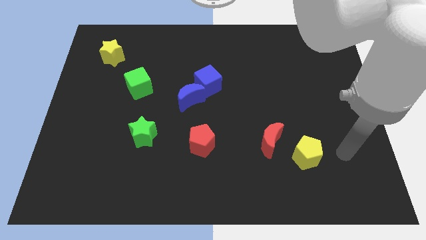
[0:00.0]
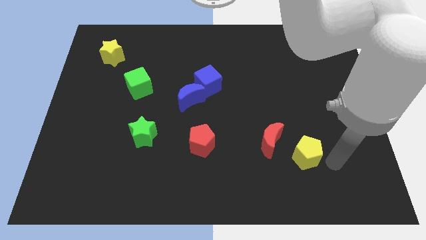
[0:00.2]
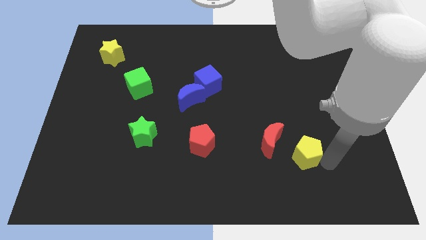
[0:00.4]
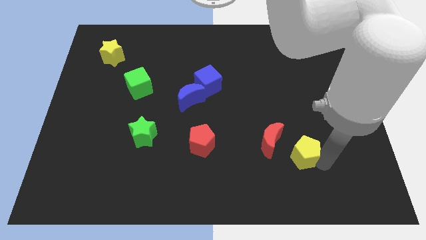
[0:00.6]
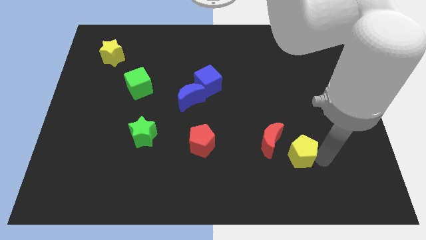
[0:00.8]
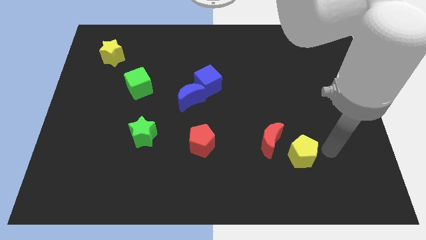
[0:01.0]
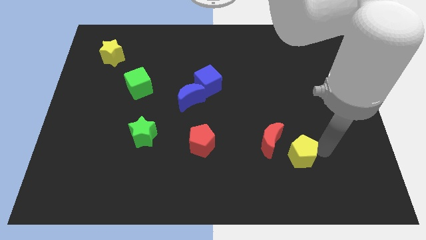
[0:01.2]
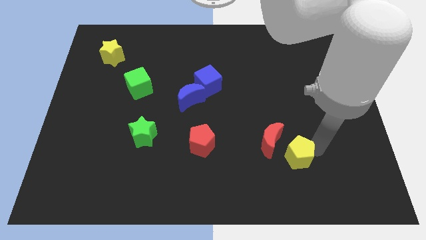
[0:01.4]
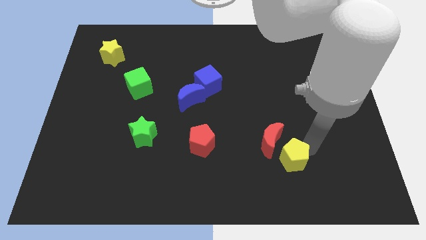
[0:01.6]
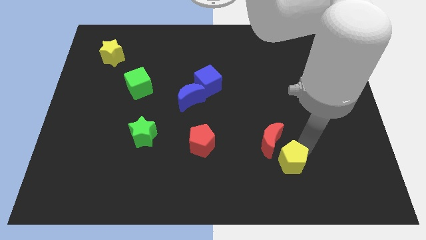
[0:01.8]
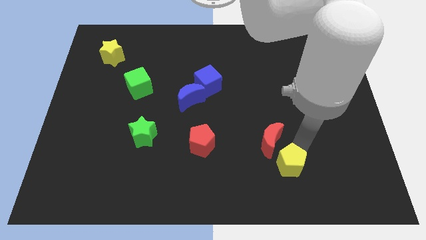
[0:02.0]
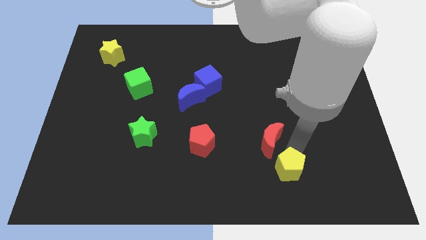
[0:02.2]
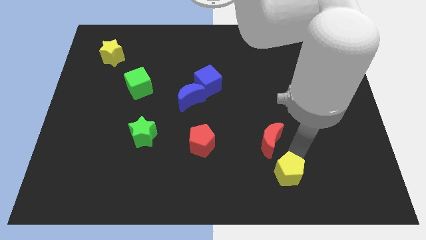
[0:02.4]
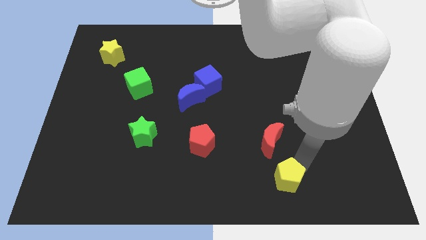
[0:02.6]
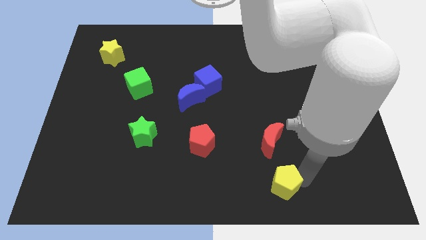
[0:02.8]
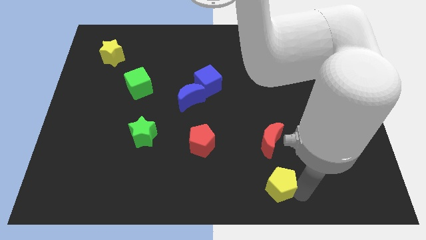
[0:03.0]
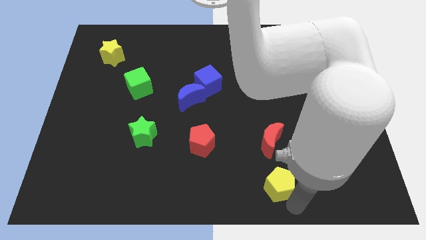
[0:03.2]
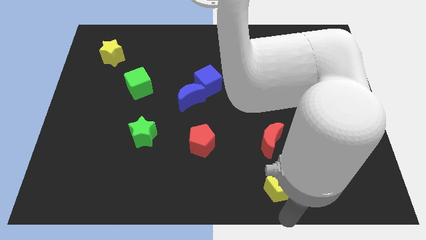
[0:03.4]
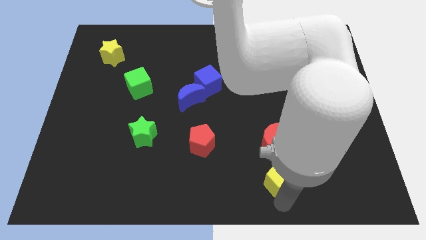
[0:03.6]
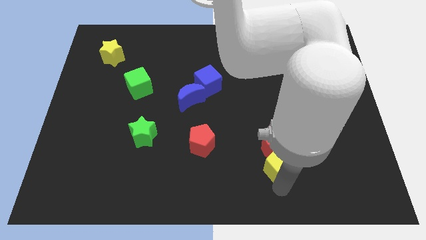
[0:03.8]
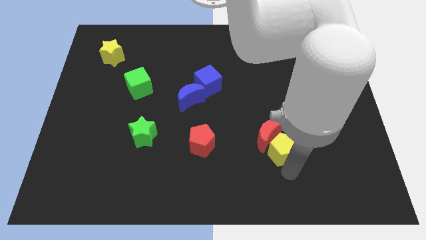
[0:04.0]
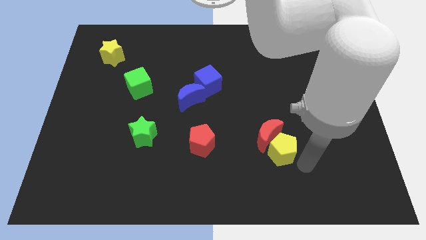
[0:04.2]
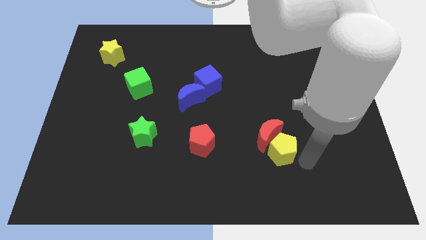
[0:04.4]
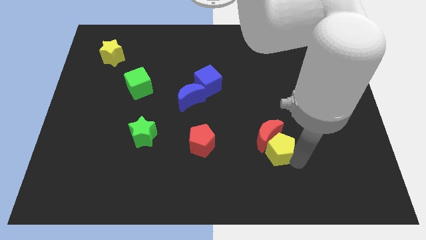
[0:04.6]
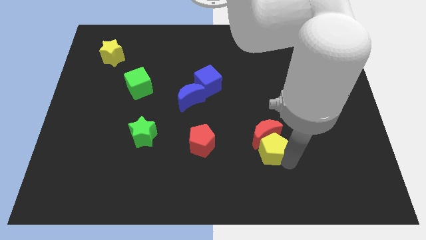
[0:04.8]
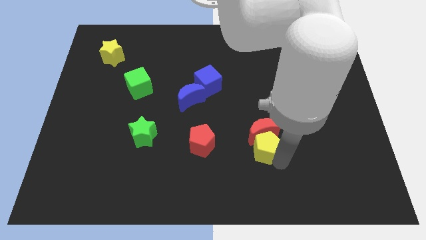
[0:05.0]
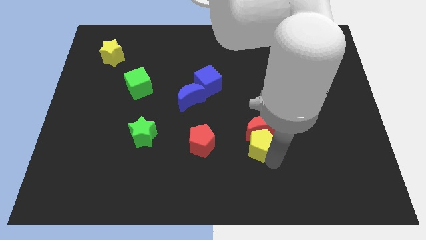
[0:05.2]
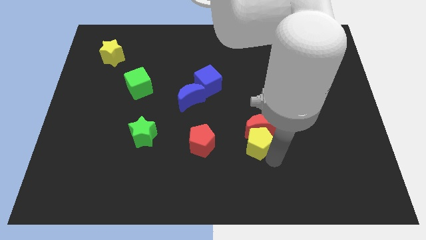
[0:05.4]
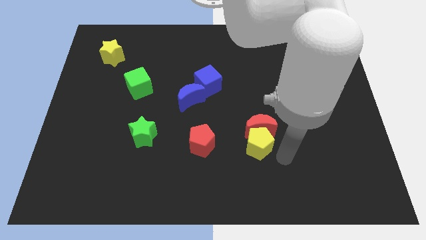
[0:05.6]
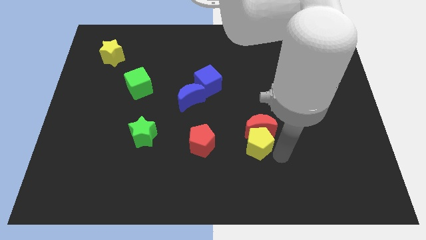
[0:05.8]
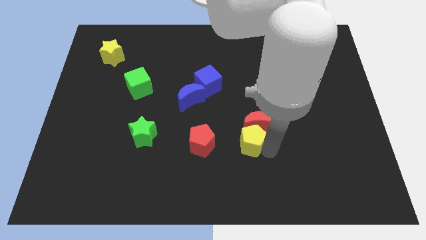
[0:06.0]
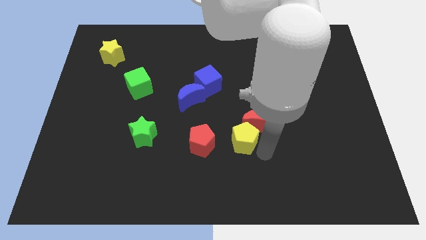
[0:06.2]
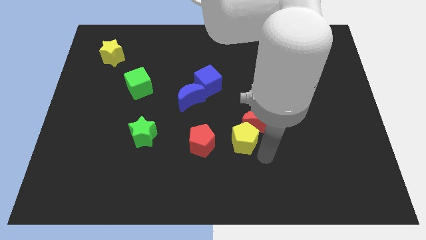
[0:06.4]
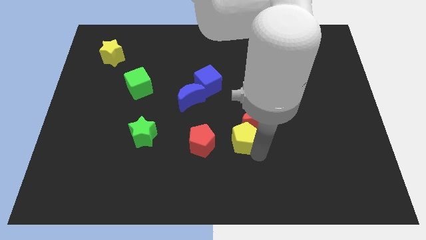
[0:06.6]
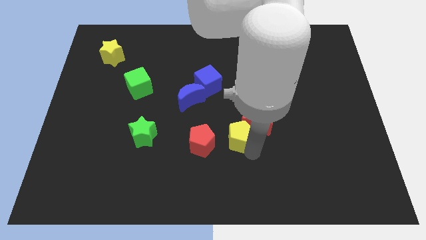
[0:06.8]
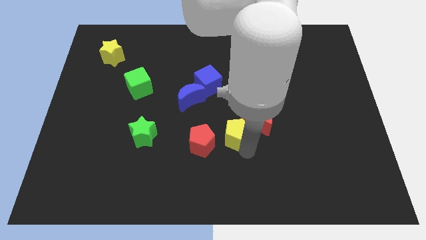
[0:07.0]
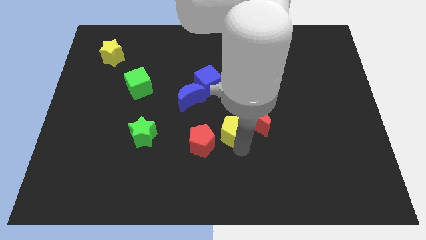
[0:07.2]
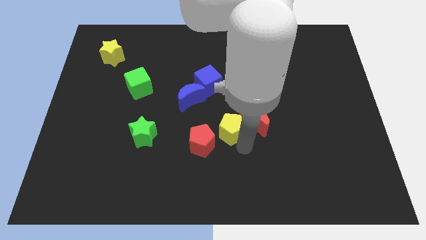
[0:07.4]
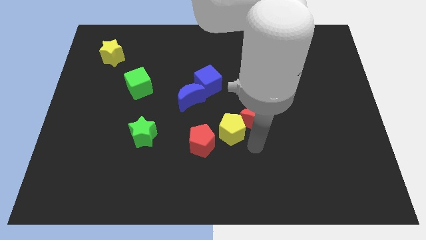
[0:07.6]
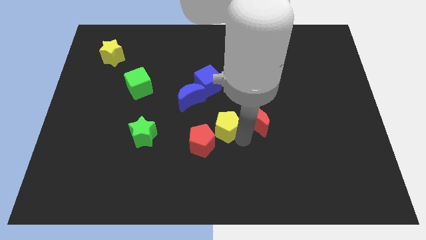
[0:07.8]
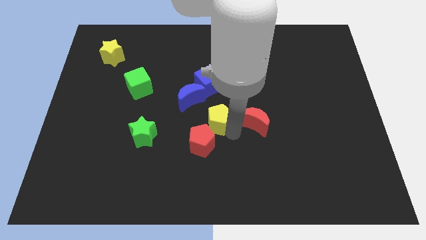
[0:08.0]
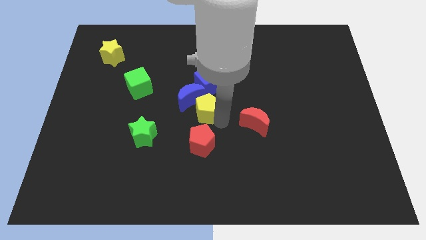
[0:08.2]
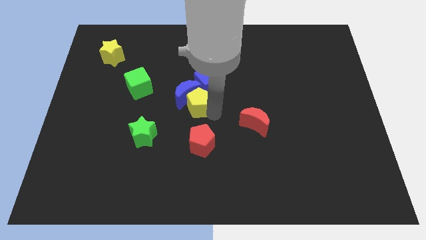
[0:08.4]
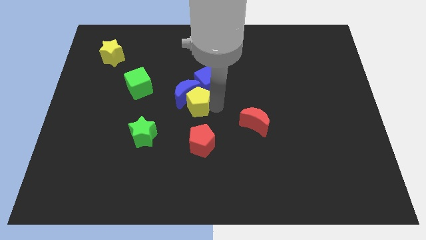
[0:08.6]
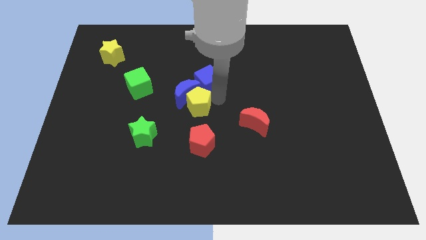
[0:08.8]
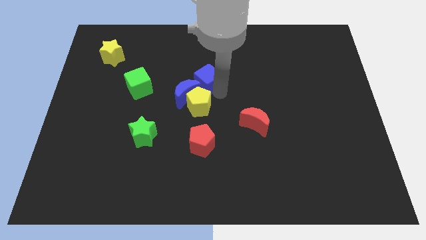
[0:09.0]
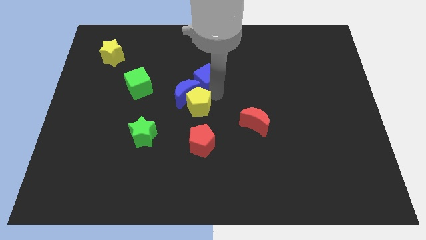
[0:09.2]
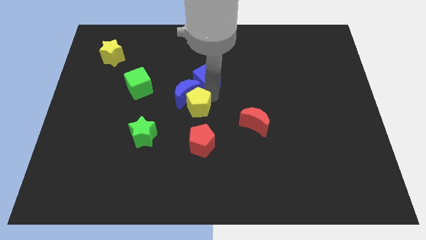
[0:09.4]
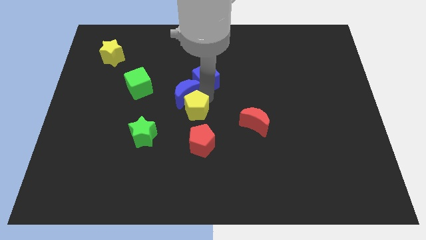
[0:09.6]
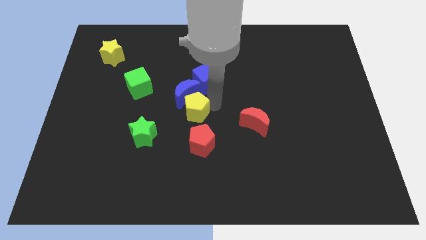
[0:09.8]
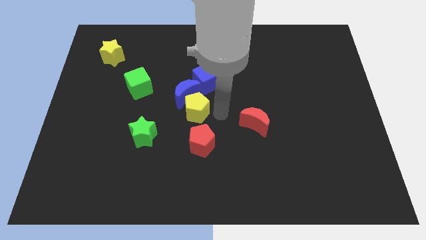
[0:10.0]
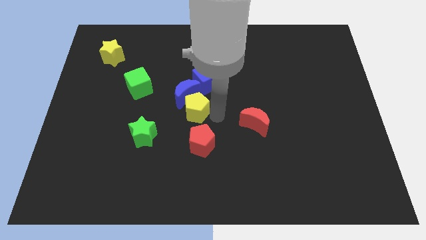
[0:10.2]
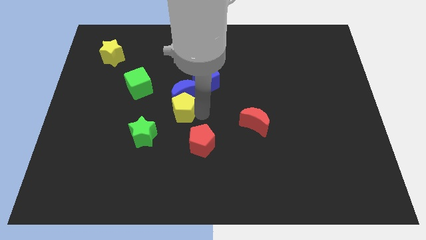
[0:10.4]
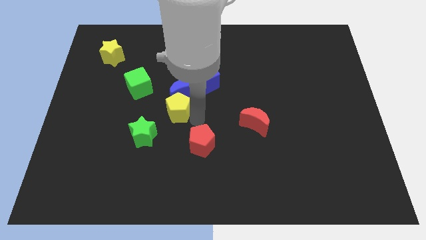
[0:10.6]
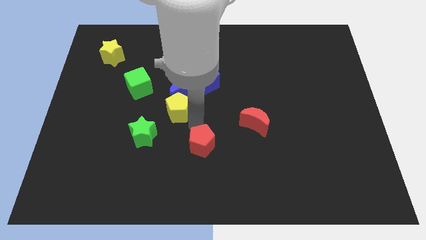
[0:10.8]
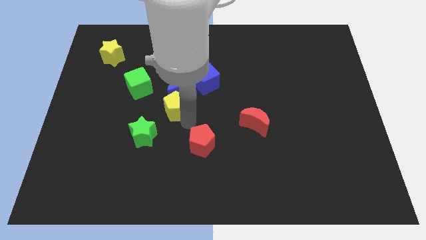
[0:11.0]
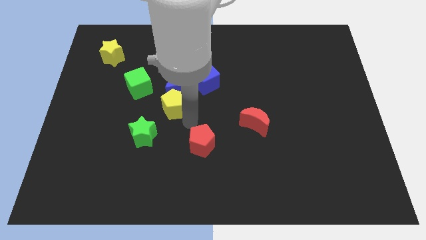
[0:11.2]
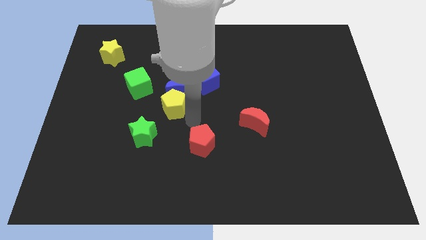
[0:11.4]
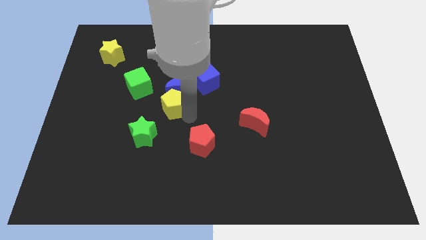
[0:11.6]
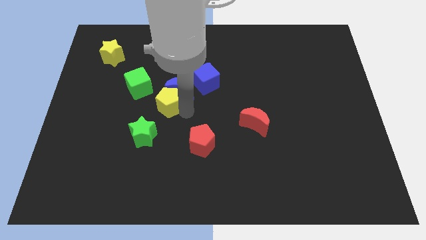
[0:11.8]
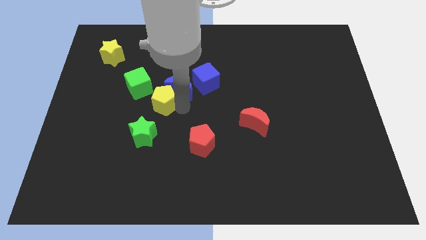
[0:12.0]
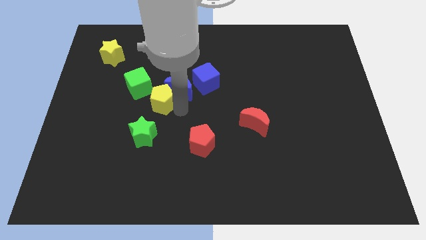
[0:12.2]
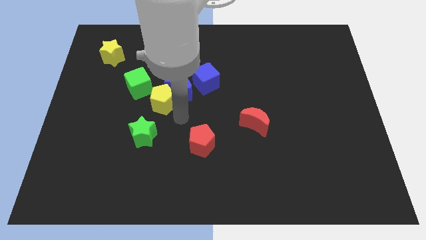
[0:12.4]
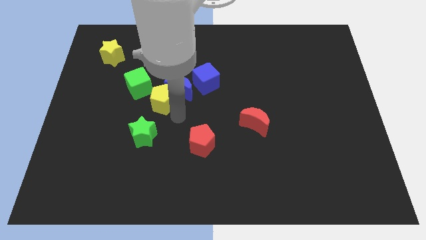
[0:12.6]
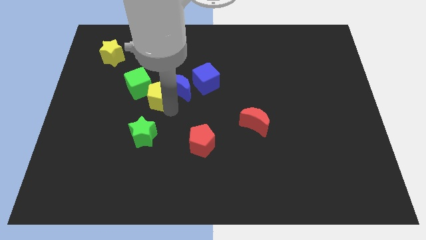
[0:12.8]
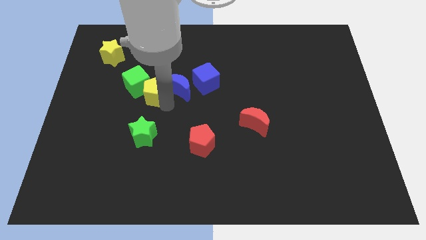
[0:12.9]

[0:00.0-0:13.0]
slide the yellow pentagon to the green cube

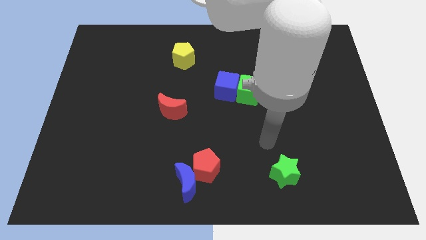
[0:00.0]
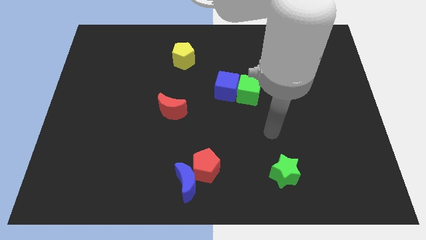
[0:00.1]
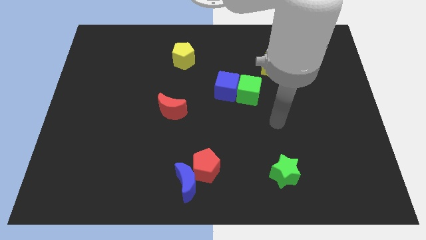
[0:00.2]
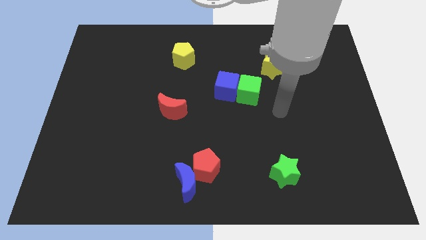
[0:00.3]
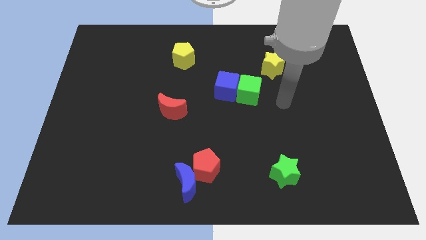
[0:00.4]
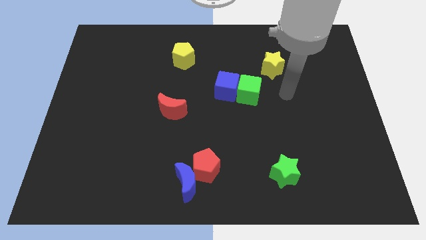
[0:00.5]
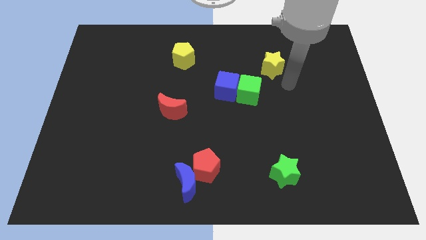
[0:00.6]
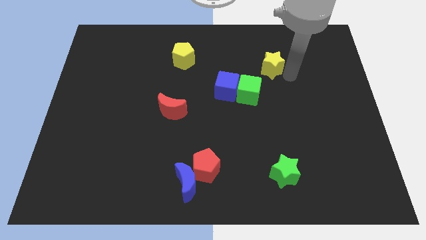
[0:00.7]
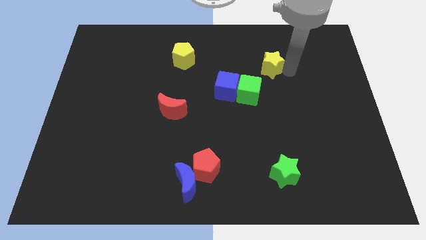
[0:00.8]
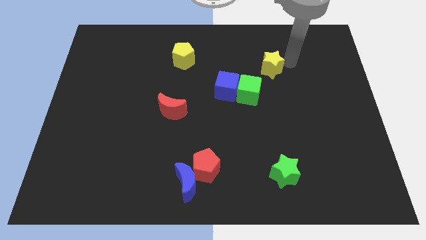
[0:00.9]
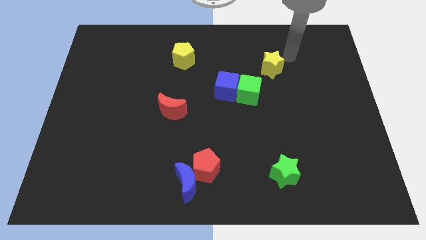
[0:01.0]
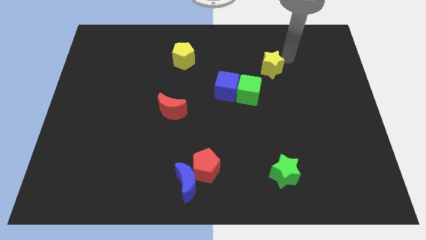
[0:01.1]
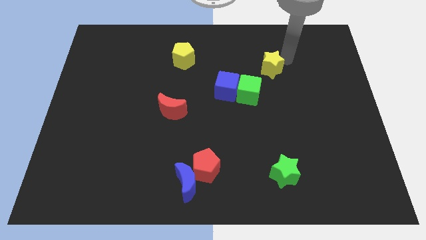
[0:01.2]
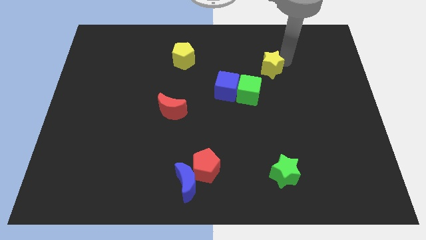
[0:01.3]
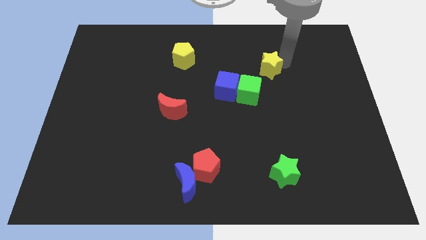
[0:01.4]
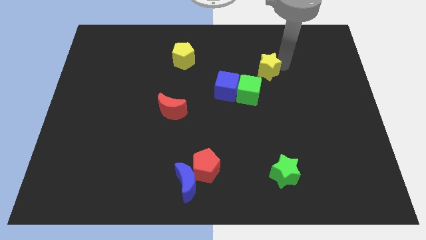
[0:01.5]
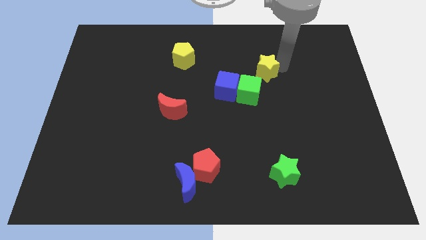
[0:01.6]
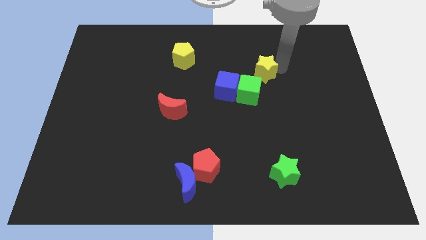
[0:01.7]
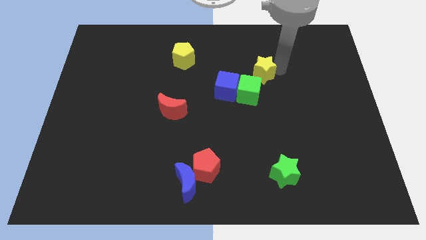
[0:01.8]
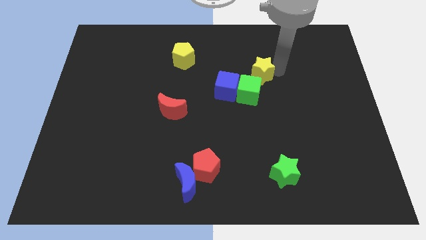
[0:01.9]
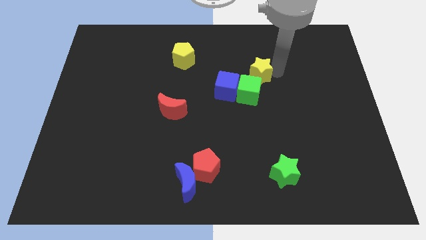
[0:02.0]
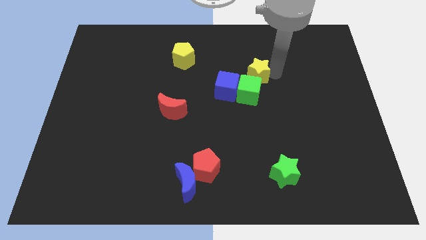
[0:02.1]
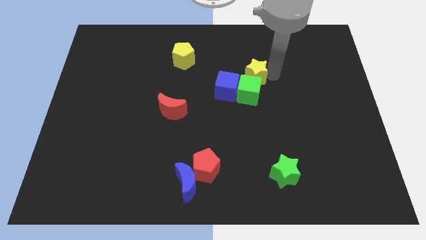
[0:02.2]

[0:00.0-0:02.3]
slide the yellow star towards the green cube
